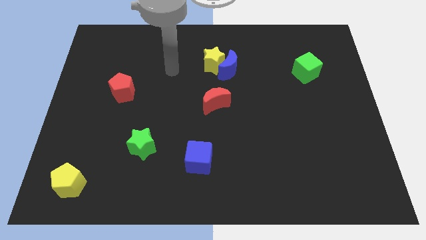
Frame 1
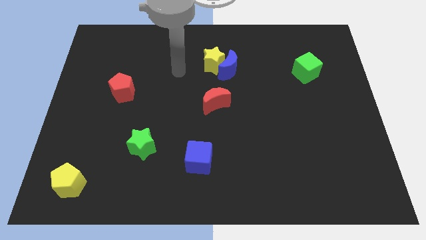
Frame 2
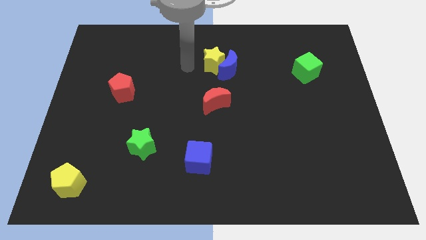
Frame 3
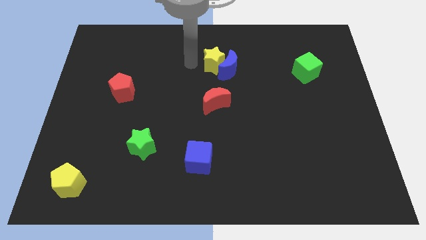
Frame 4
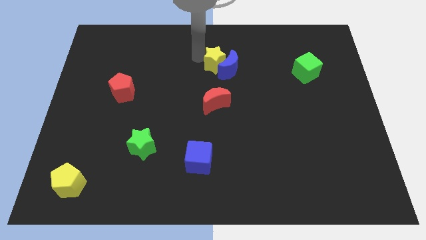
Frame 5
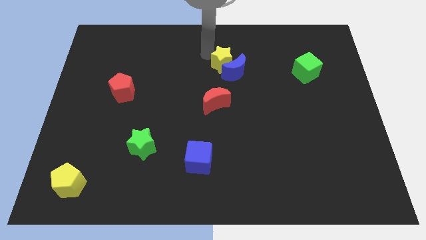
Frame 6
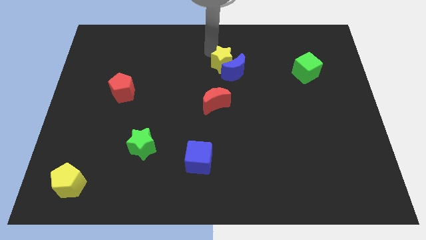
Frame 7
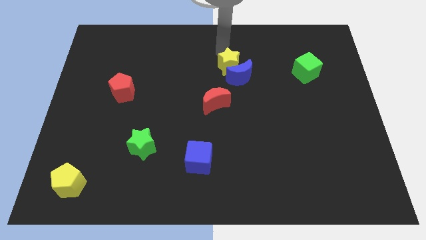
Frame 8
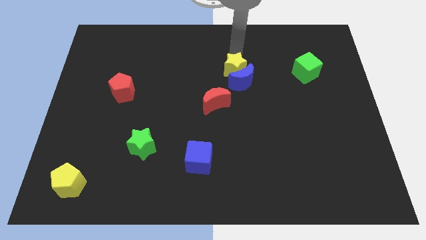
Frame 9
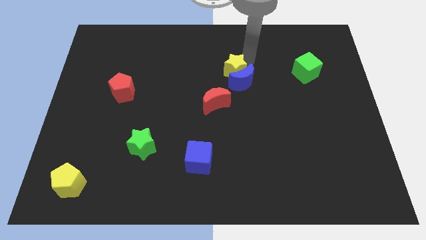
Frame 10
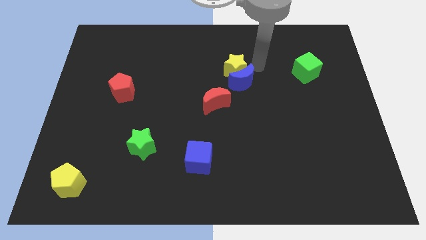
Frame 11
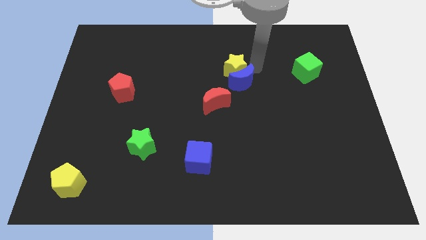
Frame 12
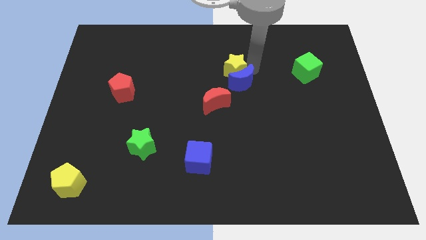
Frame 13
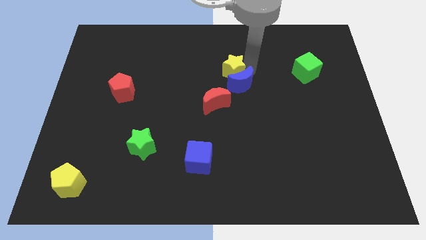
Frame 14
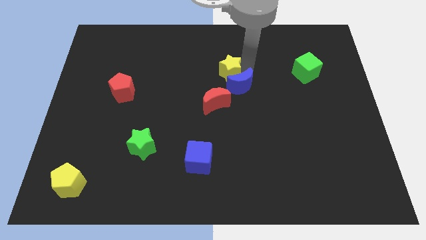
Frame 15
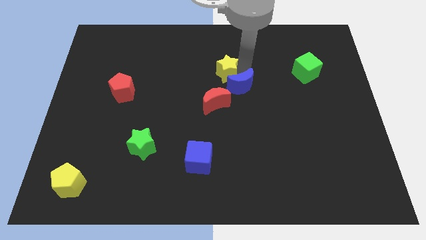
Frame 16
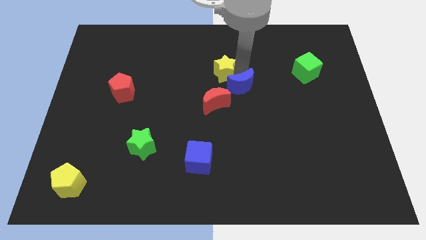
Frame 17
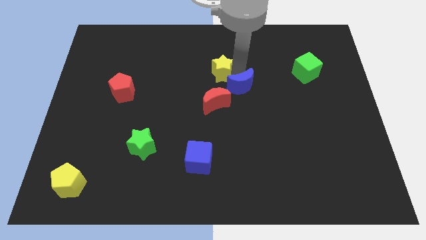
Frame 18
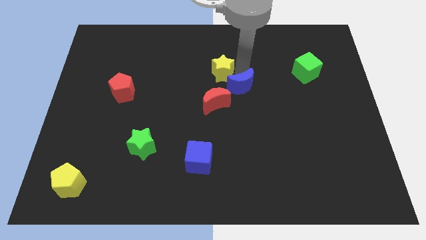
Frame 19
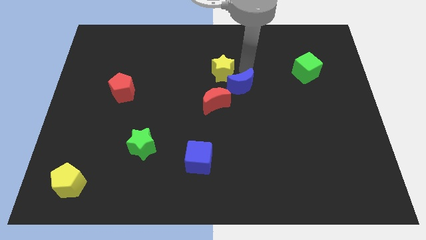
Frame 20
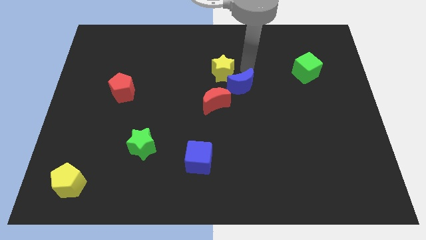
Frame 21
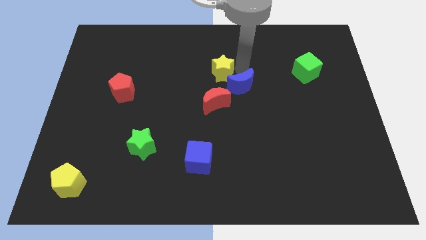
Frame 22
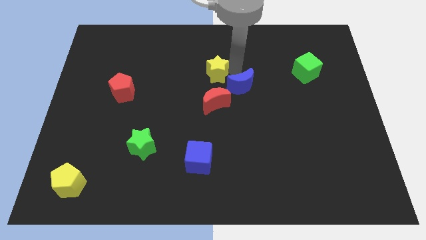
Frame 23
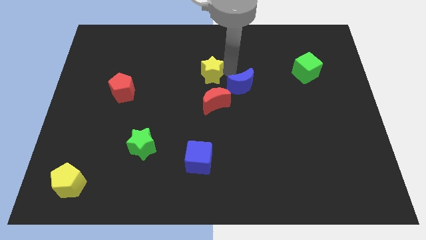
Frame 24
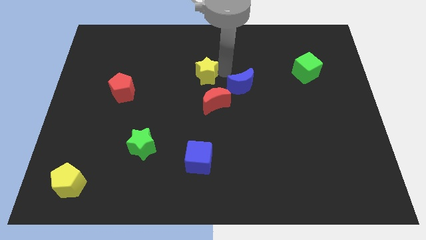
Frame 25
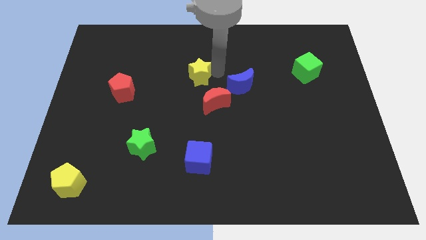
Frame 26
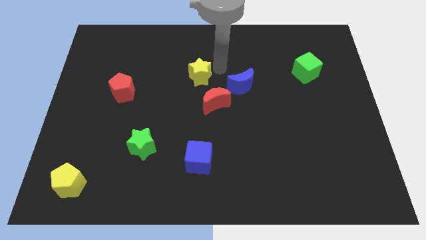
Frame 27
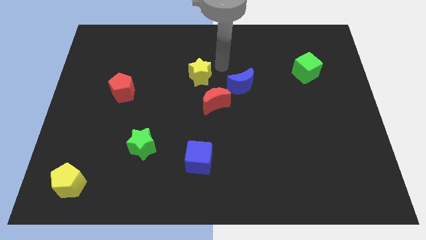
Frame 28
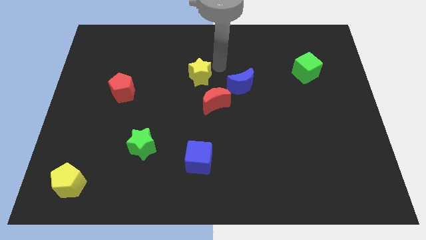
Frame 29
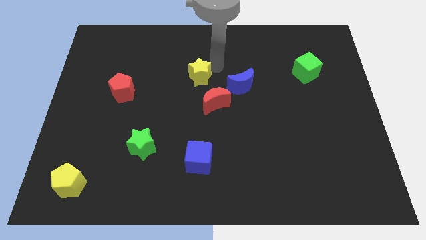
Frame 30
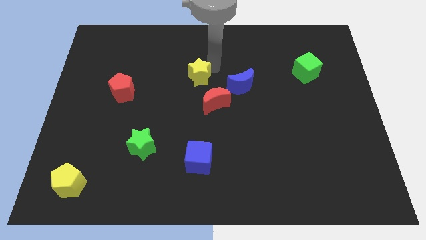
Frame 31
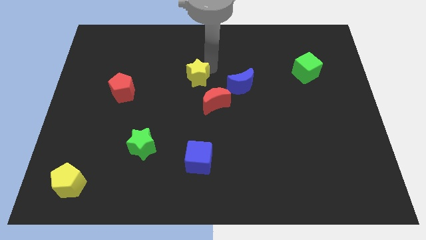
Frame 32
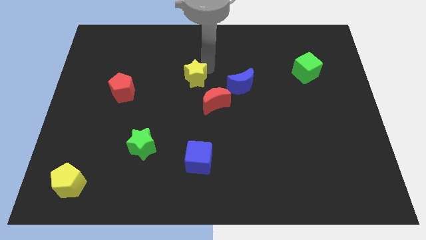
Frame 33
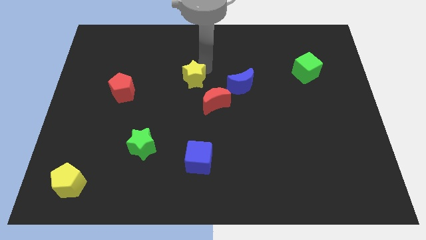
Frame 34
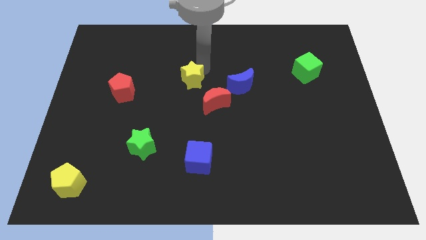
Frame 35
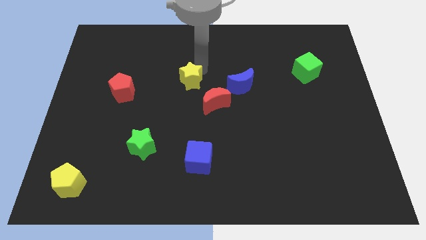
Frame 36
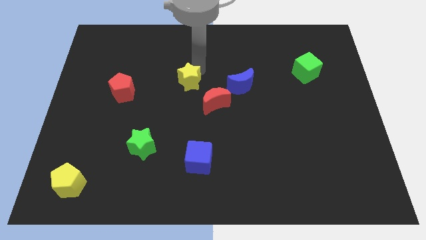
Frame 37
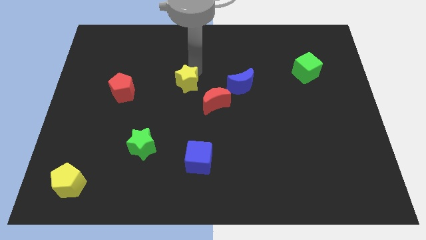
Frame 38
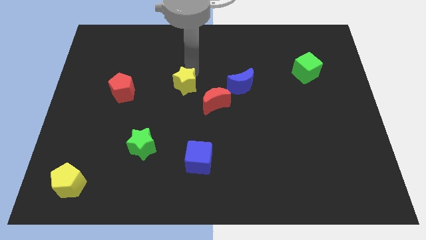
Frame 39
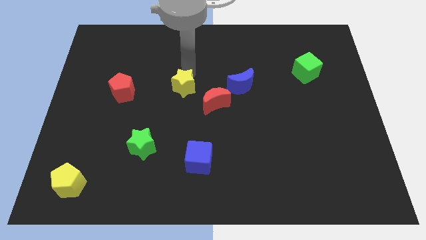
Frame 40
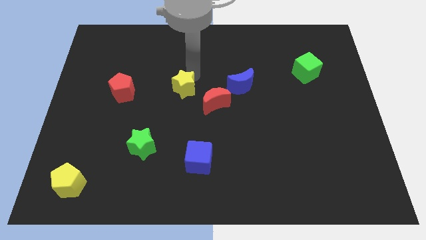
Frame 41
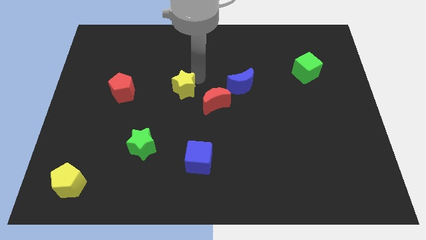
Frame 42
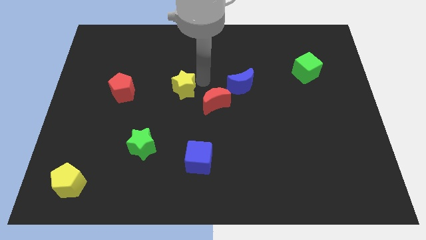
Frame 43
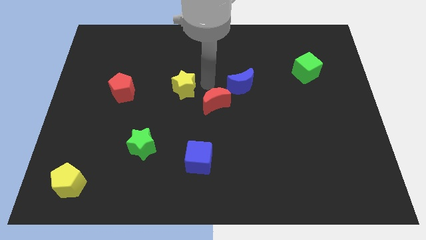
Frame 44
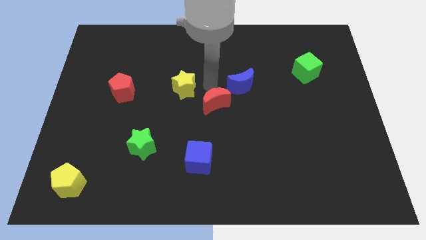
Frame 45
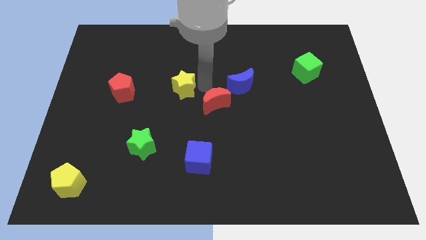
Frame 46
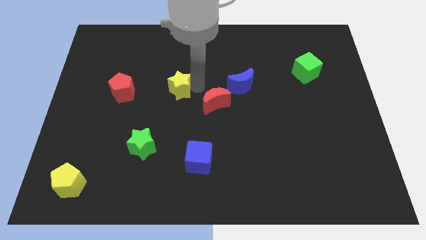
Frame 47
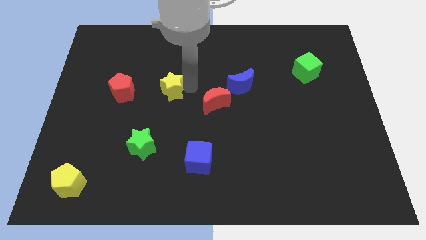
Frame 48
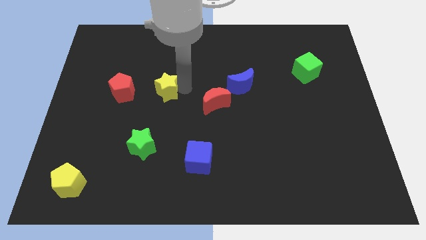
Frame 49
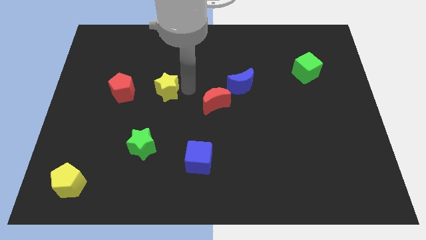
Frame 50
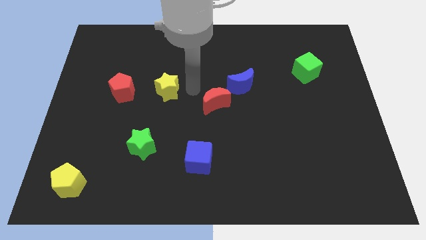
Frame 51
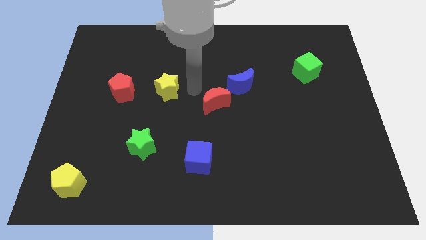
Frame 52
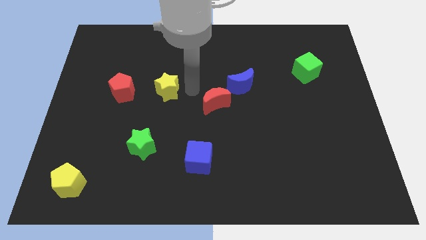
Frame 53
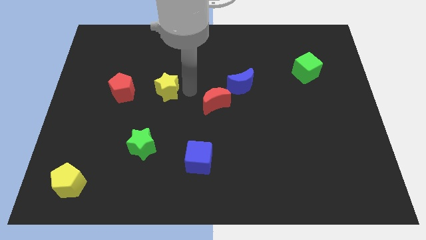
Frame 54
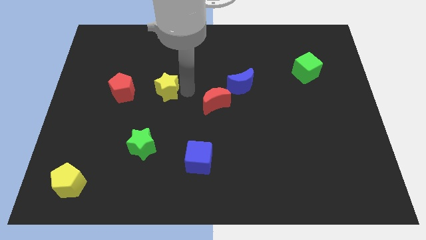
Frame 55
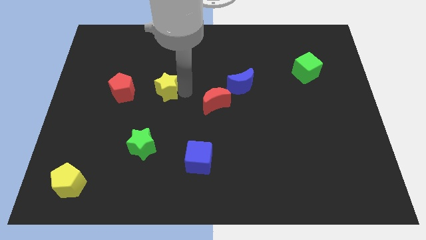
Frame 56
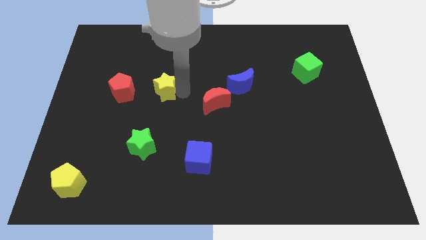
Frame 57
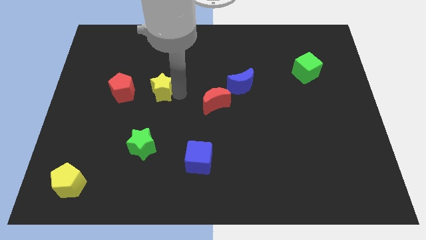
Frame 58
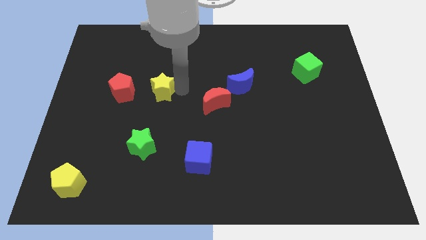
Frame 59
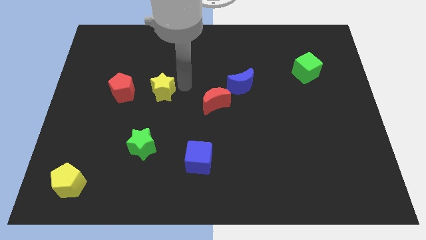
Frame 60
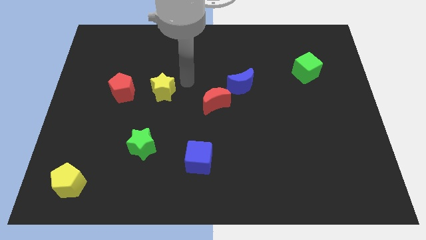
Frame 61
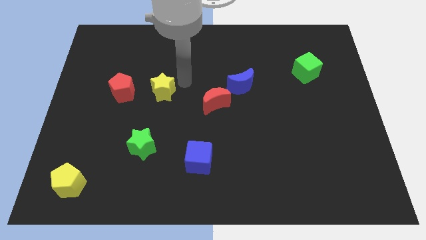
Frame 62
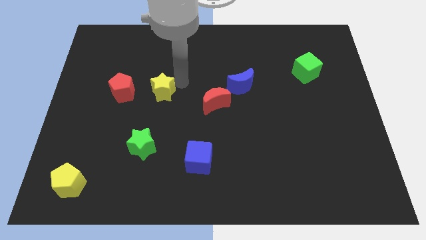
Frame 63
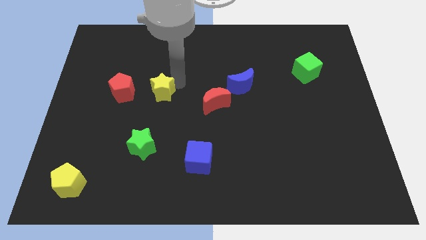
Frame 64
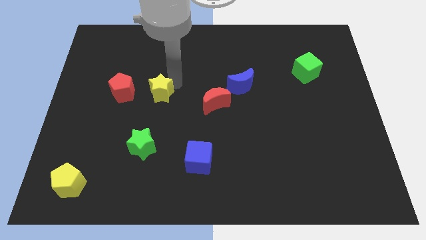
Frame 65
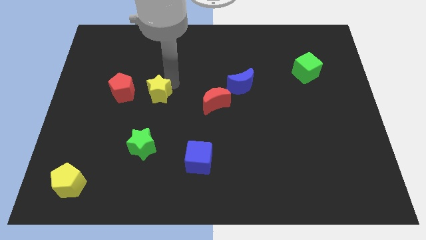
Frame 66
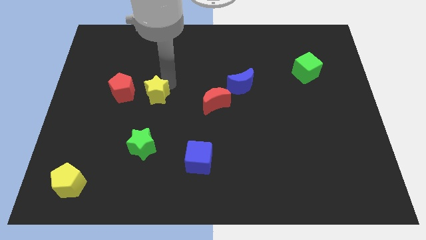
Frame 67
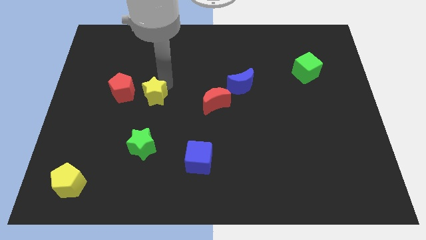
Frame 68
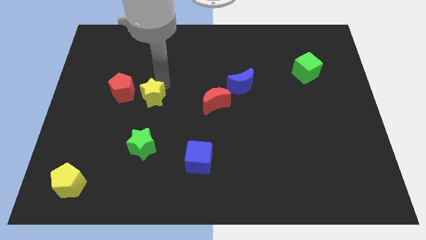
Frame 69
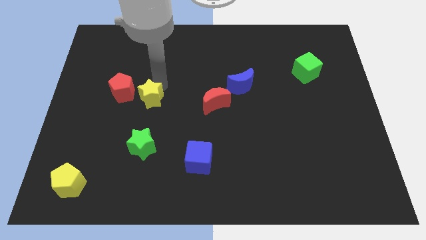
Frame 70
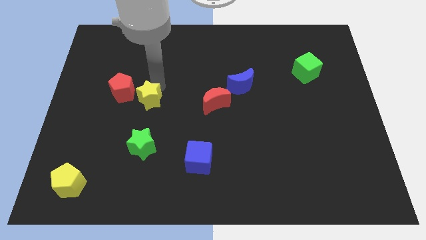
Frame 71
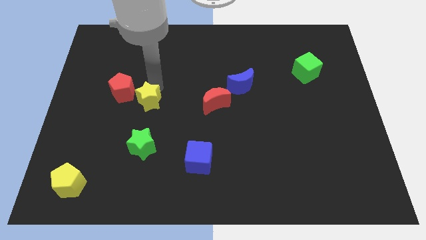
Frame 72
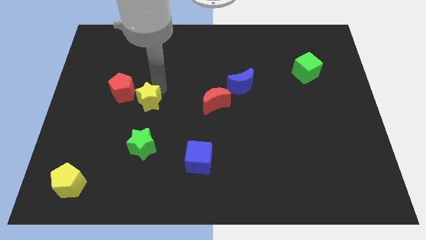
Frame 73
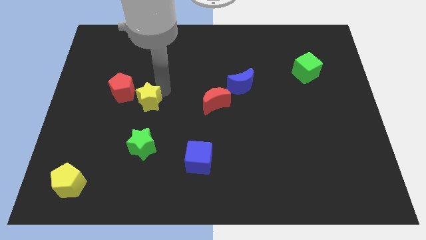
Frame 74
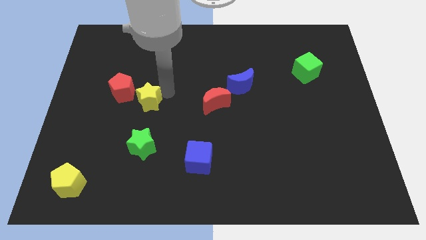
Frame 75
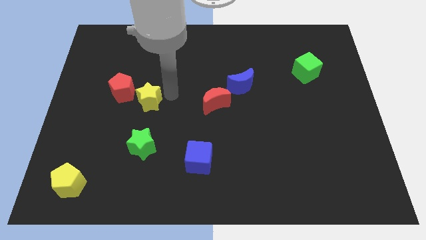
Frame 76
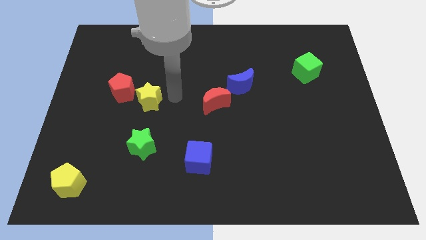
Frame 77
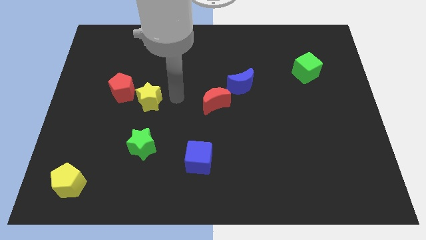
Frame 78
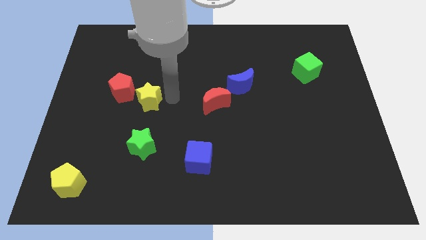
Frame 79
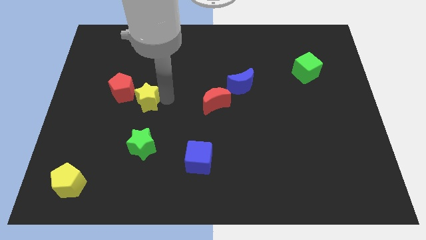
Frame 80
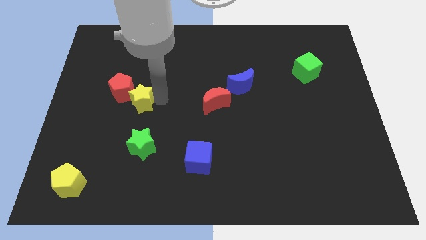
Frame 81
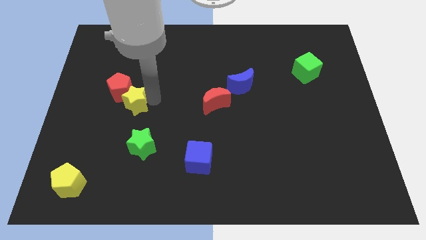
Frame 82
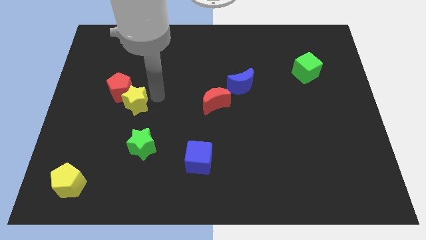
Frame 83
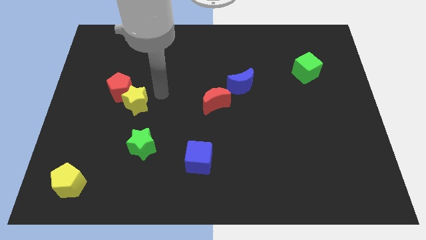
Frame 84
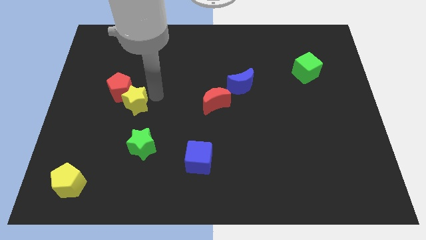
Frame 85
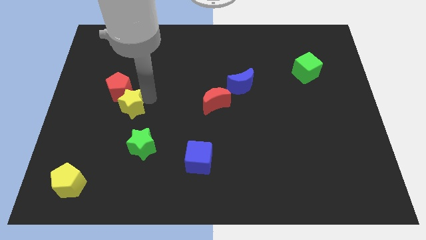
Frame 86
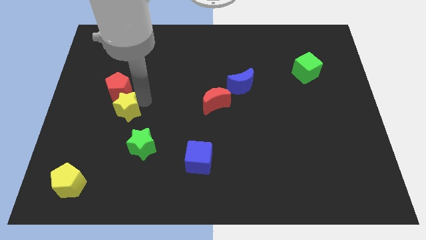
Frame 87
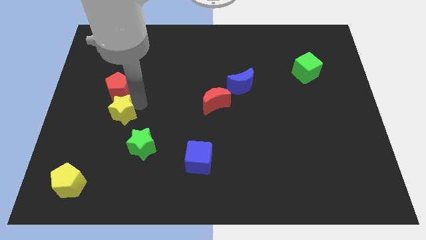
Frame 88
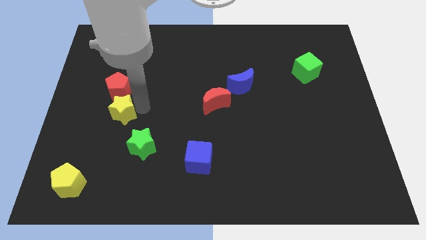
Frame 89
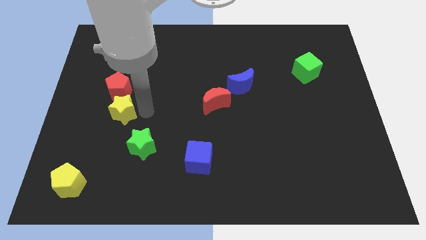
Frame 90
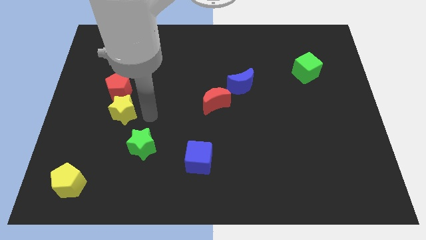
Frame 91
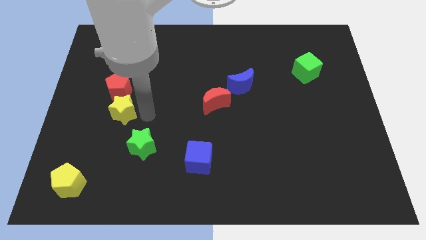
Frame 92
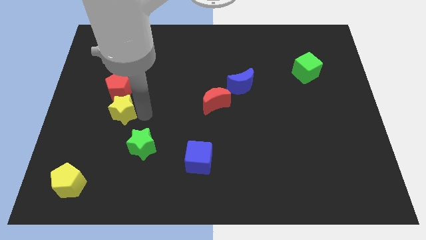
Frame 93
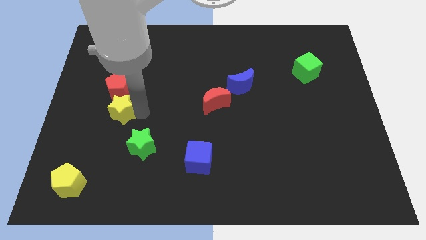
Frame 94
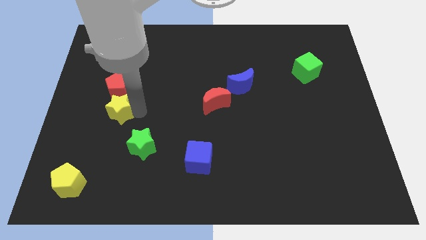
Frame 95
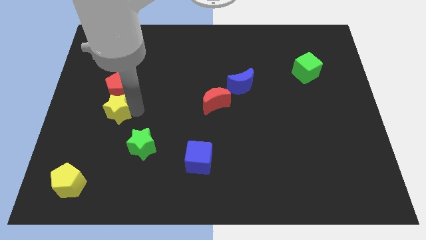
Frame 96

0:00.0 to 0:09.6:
move the yellow star to the bottom left side of the red pentagon
